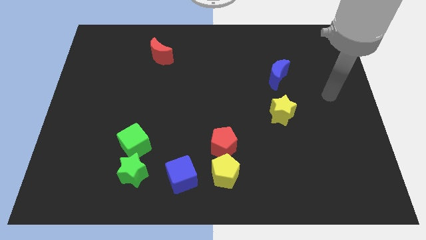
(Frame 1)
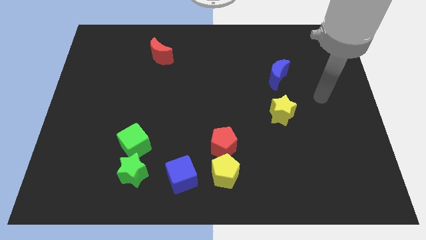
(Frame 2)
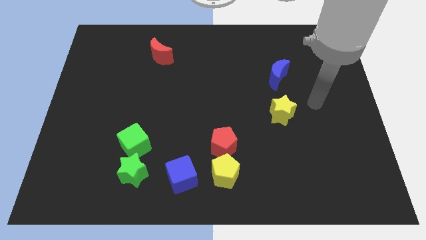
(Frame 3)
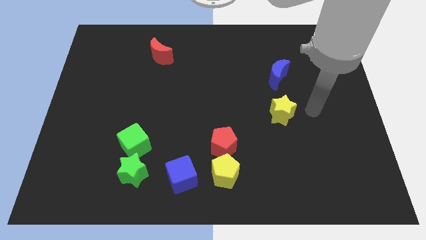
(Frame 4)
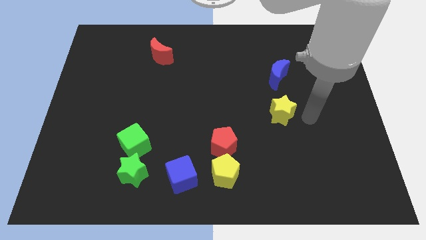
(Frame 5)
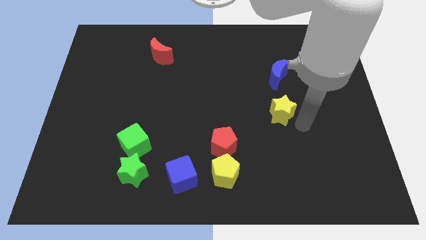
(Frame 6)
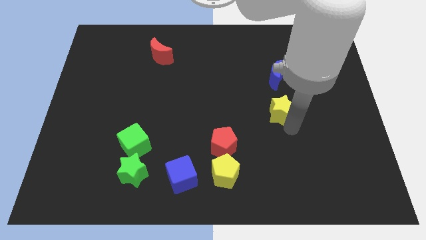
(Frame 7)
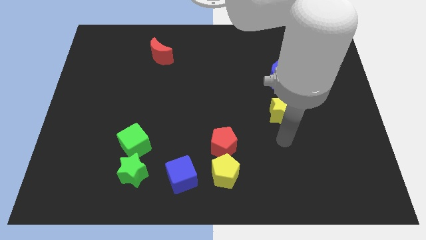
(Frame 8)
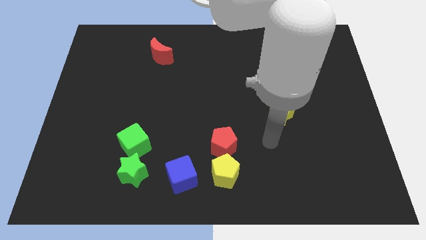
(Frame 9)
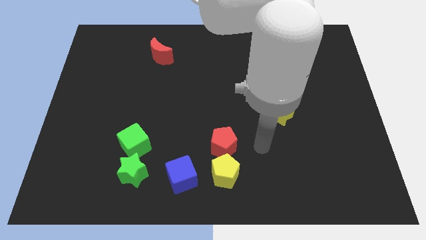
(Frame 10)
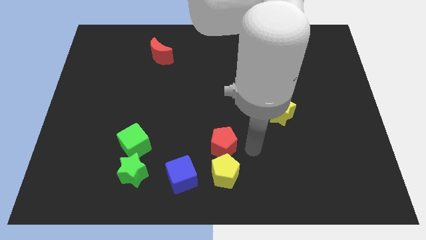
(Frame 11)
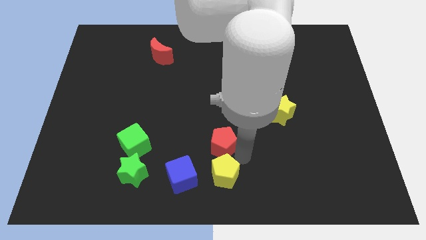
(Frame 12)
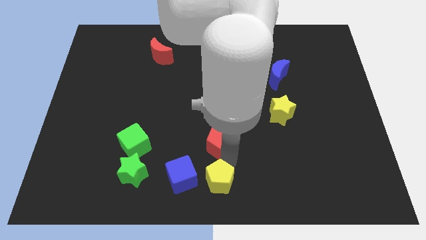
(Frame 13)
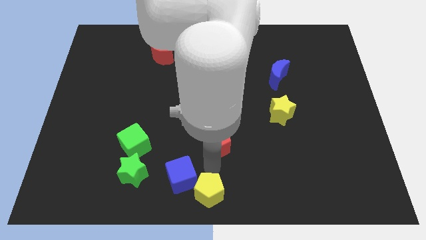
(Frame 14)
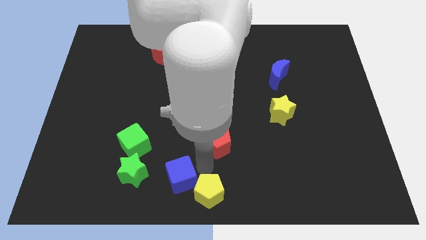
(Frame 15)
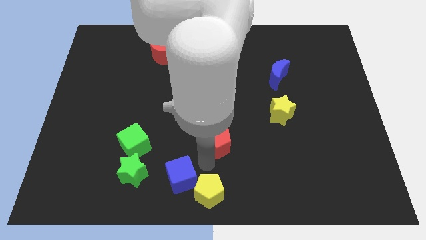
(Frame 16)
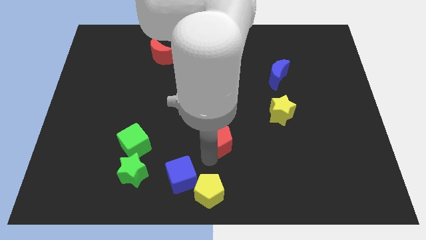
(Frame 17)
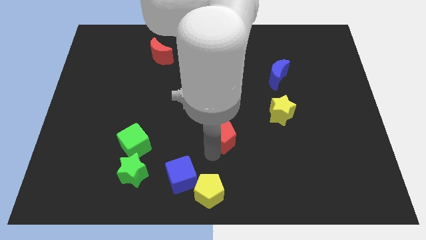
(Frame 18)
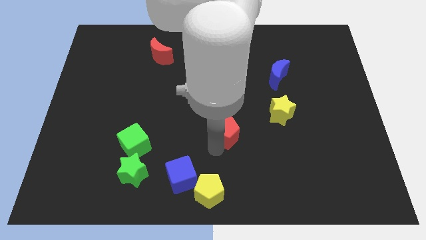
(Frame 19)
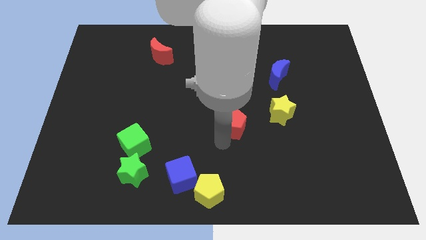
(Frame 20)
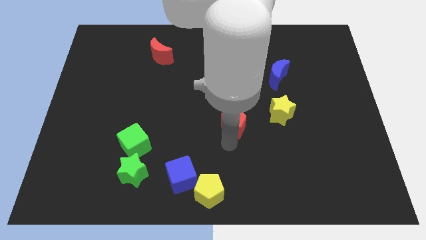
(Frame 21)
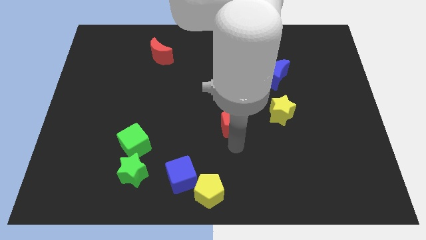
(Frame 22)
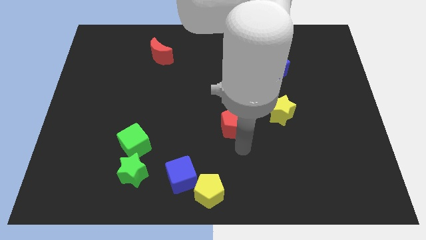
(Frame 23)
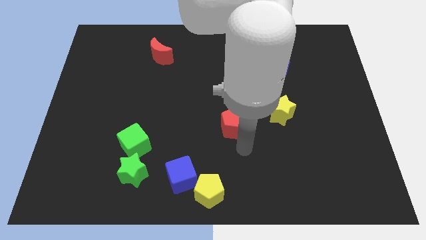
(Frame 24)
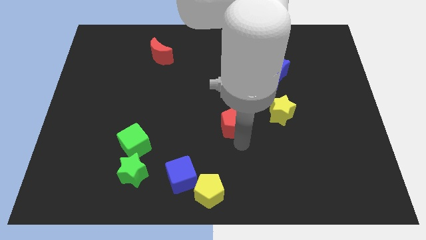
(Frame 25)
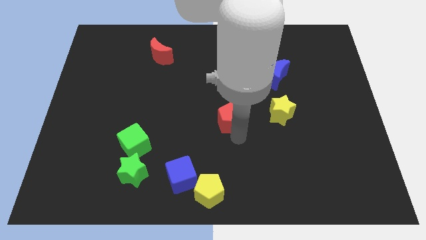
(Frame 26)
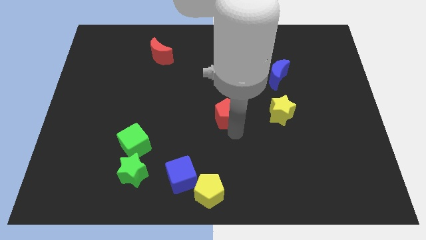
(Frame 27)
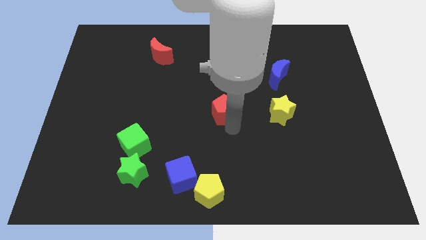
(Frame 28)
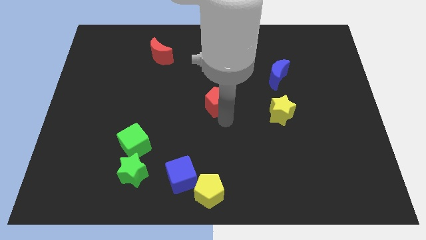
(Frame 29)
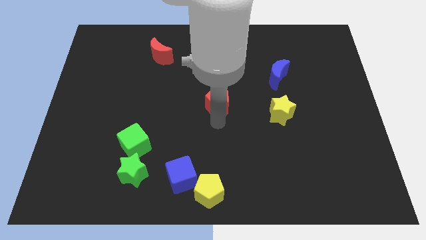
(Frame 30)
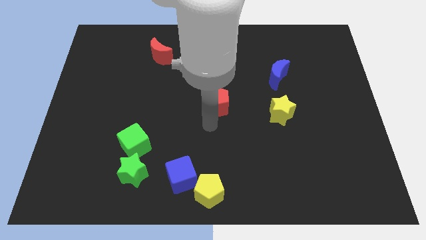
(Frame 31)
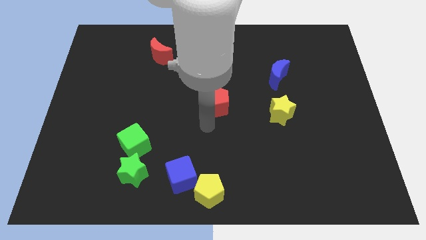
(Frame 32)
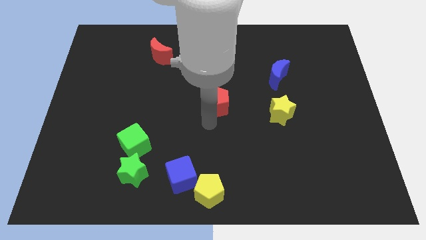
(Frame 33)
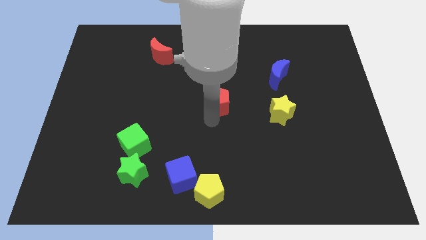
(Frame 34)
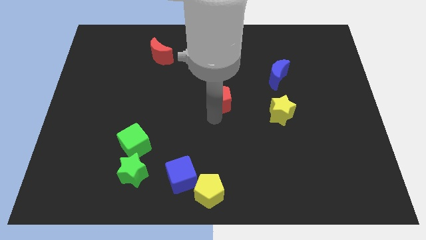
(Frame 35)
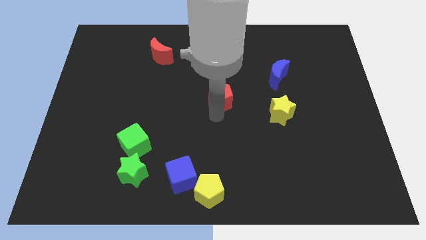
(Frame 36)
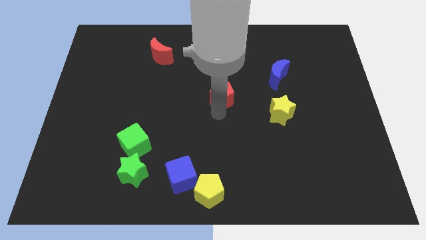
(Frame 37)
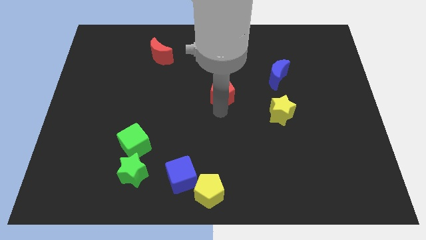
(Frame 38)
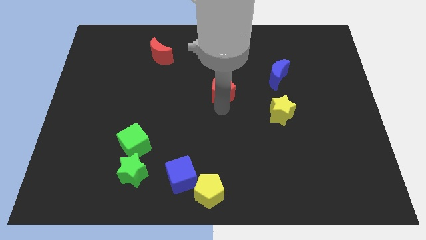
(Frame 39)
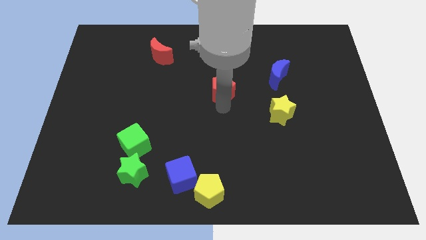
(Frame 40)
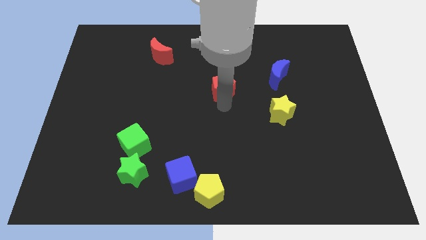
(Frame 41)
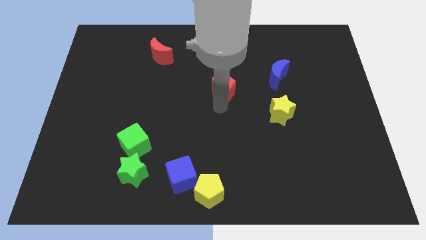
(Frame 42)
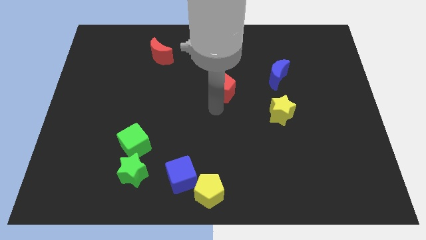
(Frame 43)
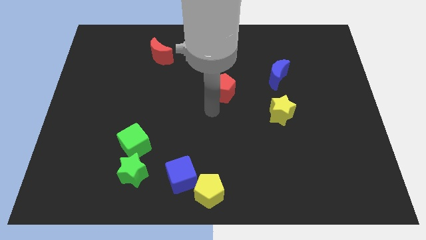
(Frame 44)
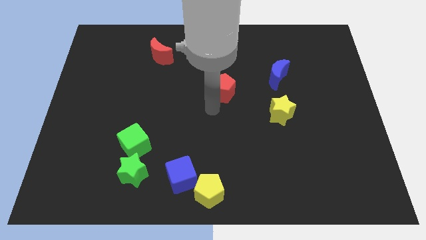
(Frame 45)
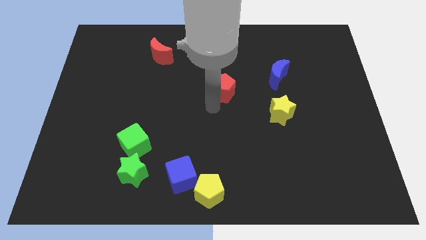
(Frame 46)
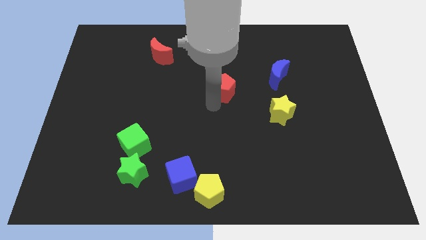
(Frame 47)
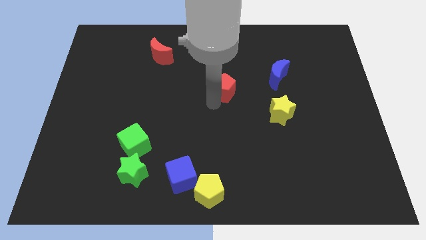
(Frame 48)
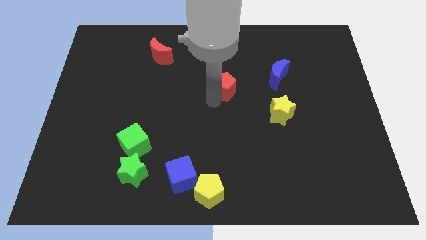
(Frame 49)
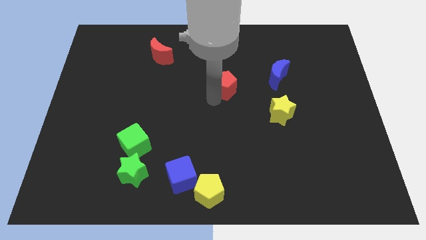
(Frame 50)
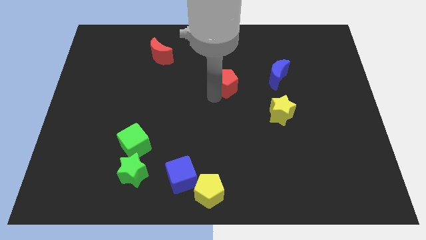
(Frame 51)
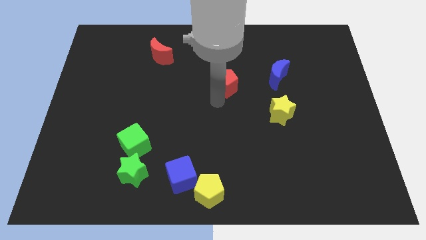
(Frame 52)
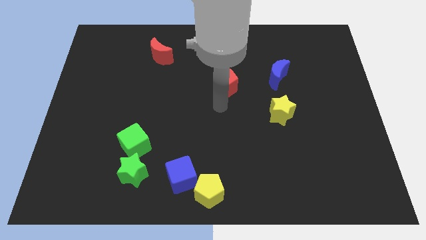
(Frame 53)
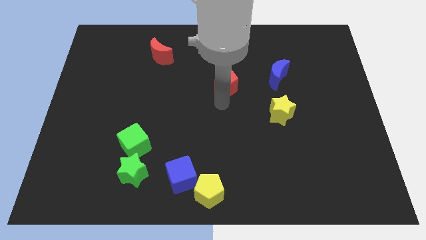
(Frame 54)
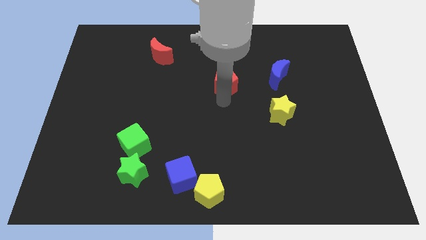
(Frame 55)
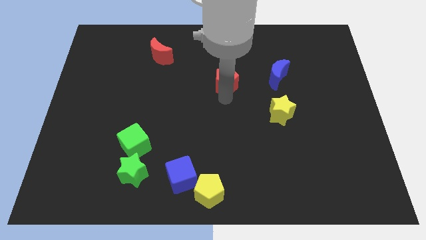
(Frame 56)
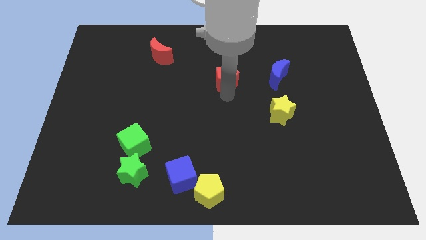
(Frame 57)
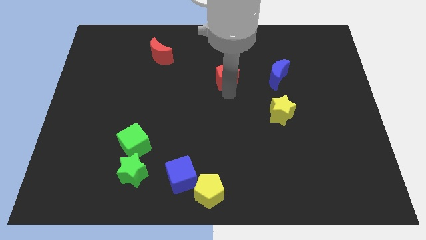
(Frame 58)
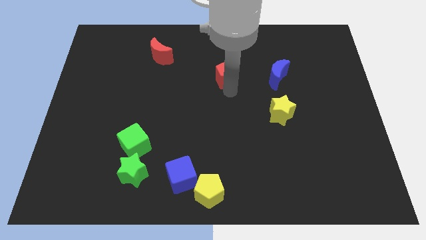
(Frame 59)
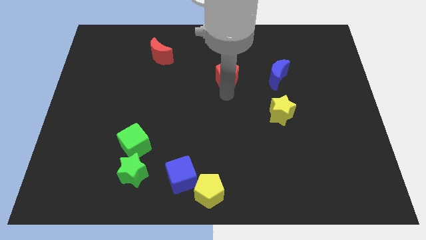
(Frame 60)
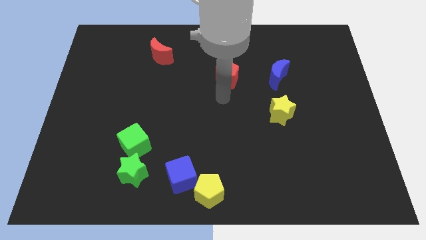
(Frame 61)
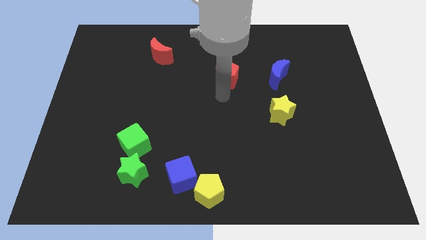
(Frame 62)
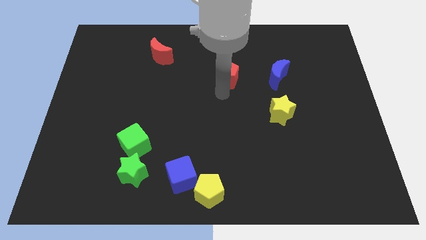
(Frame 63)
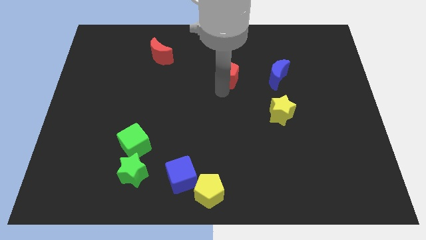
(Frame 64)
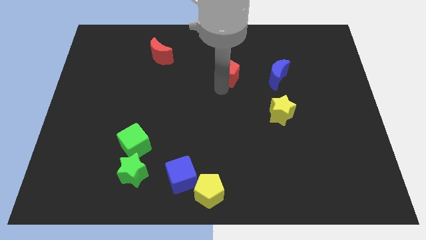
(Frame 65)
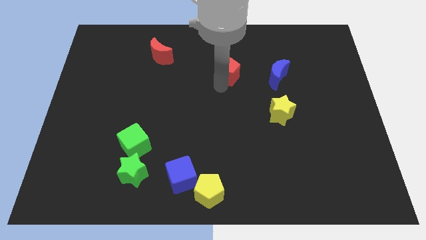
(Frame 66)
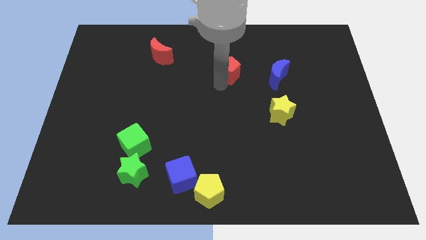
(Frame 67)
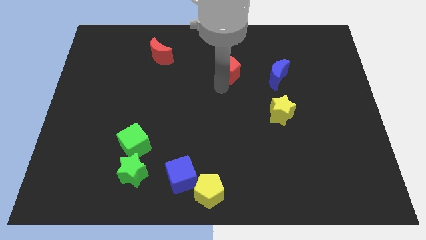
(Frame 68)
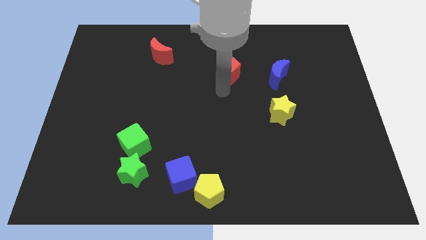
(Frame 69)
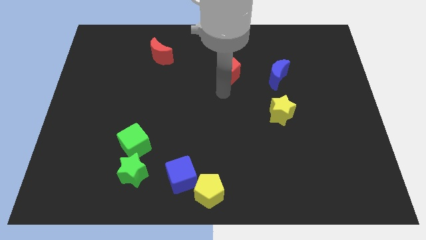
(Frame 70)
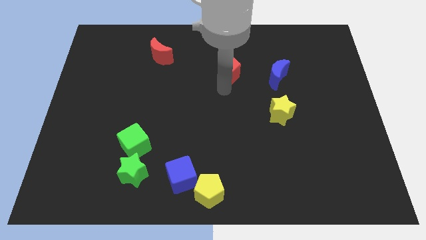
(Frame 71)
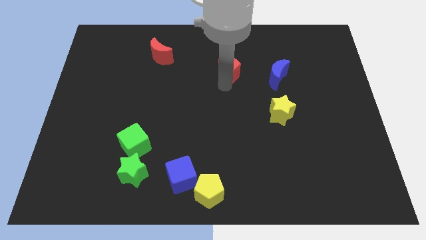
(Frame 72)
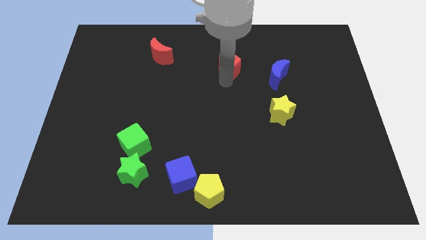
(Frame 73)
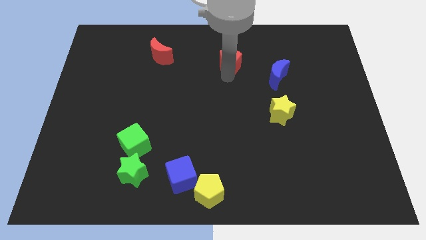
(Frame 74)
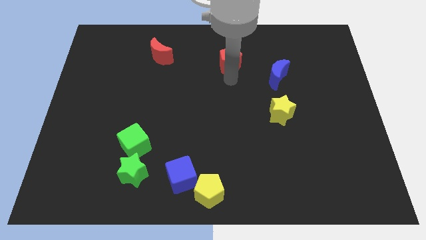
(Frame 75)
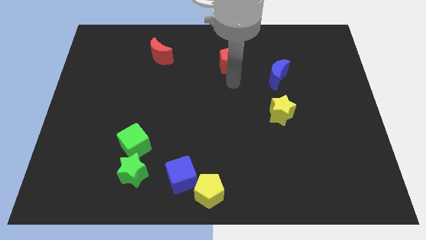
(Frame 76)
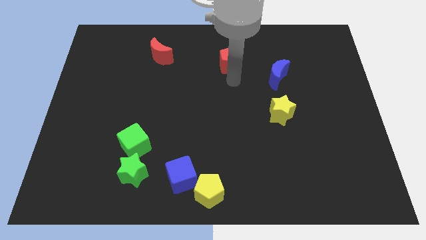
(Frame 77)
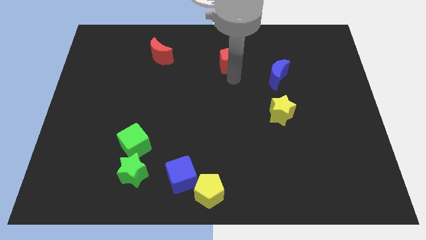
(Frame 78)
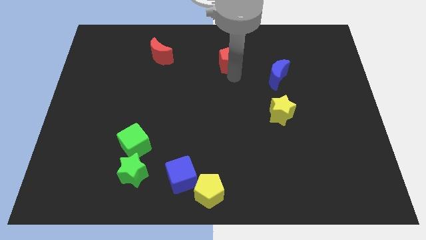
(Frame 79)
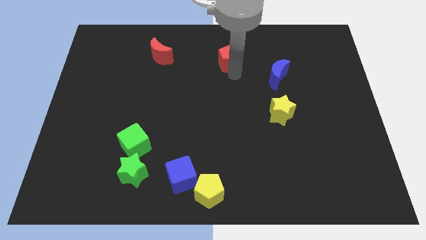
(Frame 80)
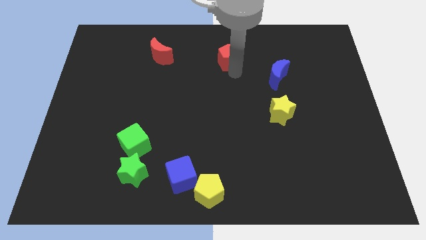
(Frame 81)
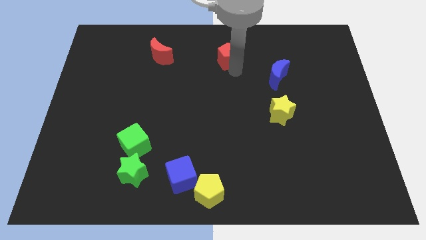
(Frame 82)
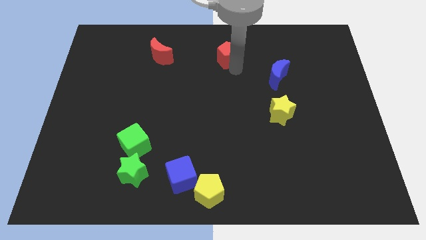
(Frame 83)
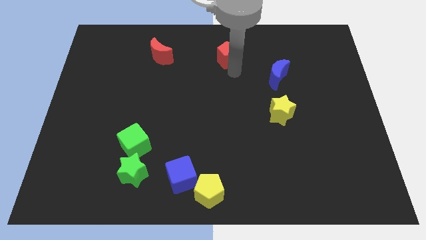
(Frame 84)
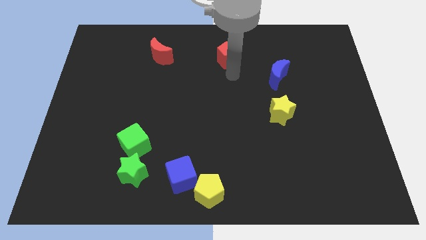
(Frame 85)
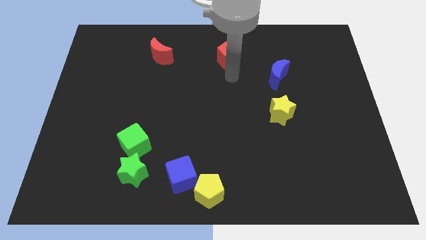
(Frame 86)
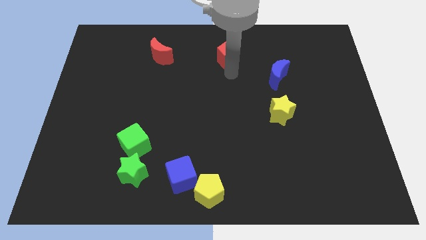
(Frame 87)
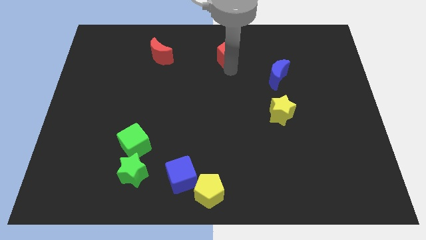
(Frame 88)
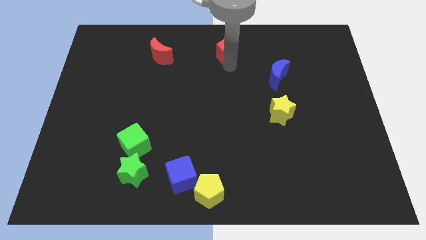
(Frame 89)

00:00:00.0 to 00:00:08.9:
put the red pentagon to the top
